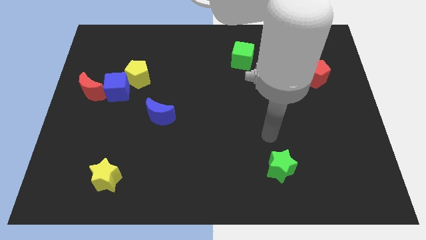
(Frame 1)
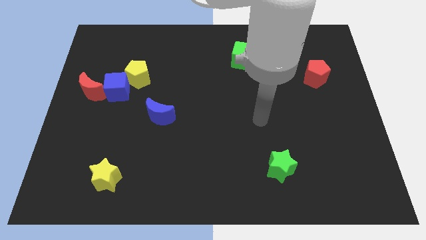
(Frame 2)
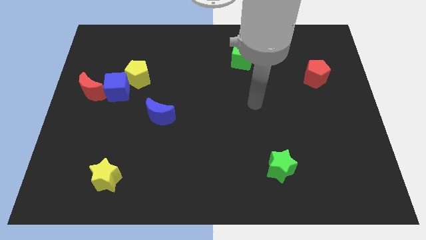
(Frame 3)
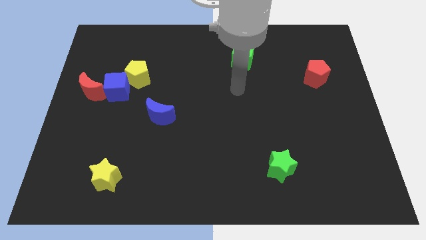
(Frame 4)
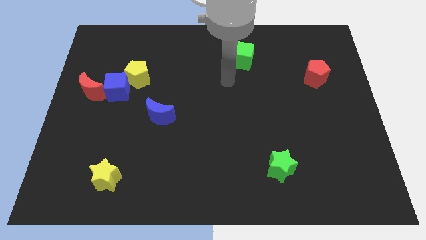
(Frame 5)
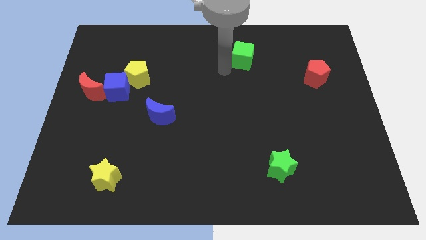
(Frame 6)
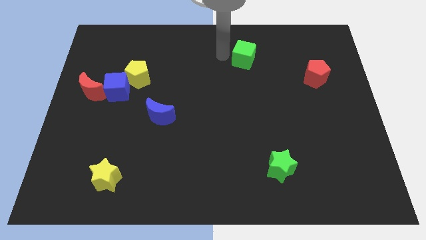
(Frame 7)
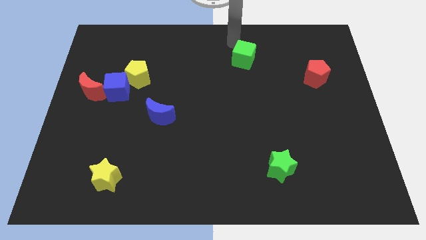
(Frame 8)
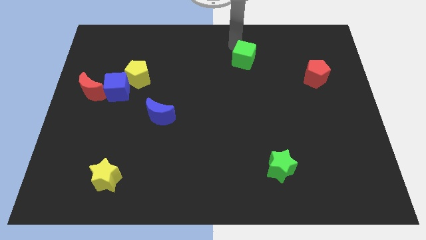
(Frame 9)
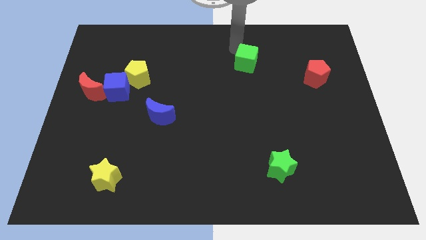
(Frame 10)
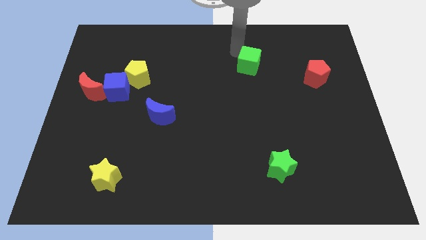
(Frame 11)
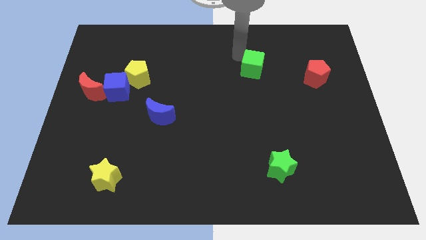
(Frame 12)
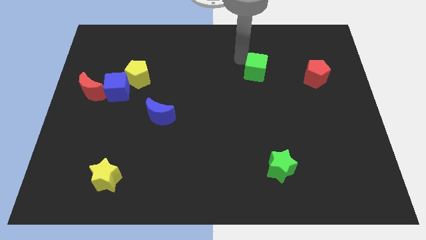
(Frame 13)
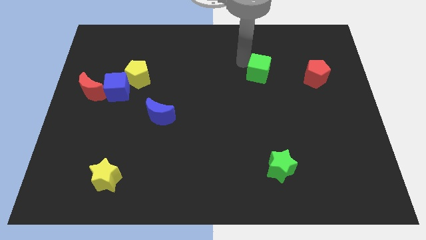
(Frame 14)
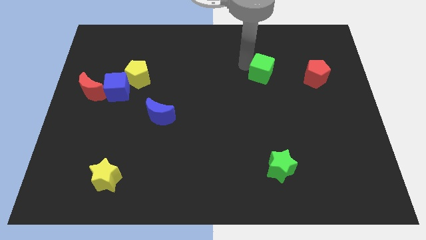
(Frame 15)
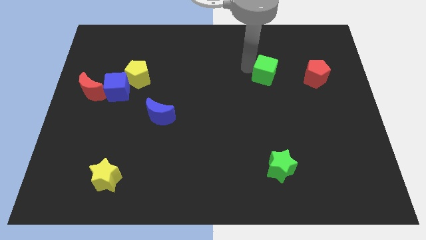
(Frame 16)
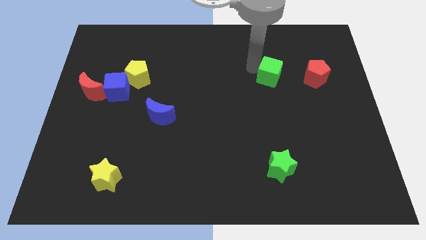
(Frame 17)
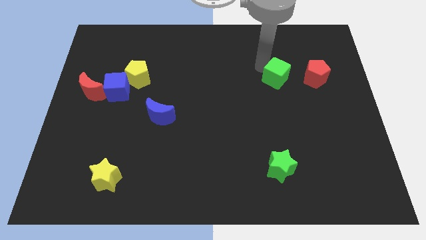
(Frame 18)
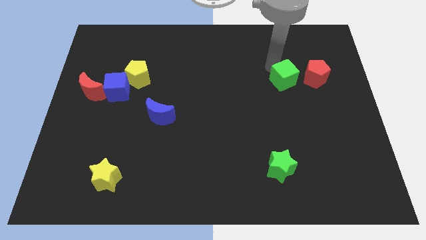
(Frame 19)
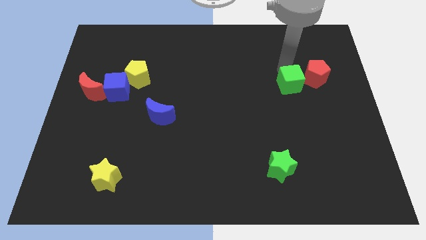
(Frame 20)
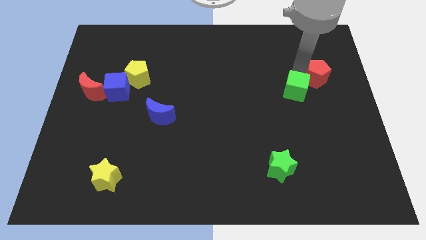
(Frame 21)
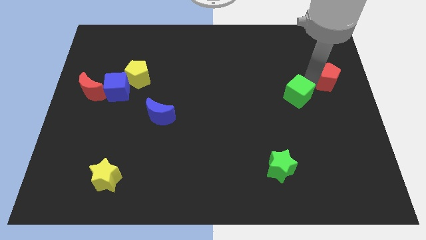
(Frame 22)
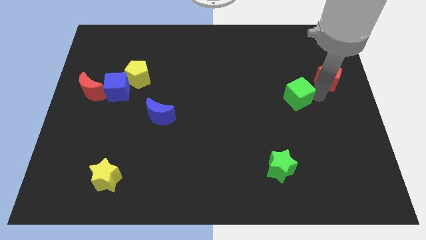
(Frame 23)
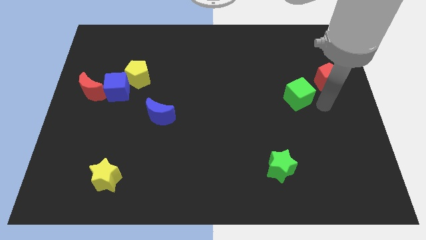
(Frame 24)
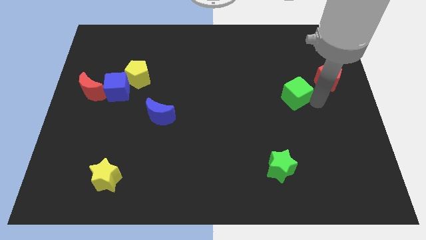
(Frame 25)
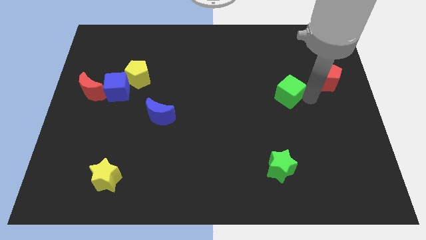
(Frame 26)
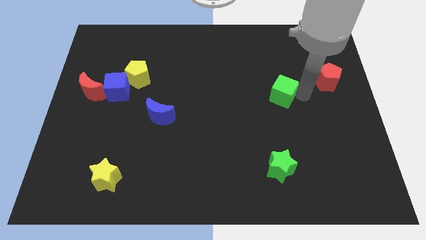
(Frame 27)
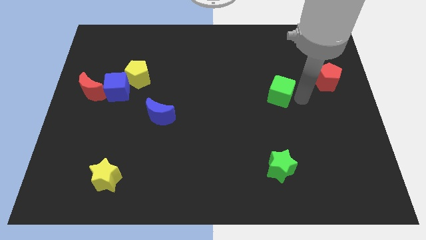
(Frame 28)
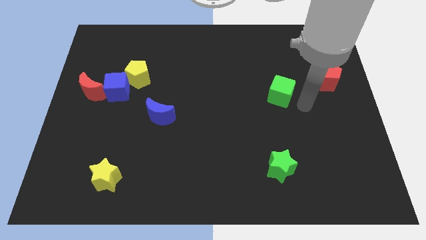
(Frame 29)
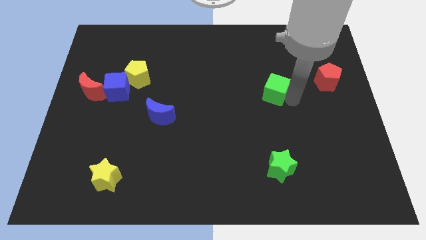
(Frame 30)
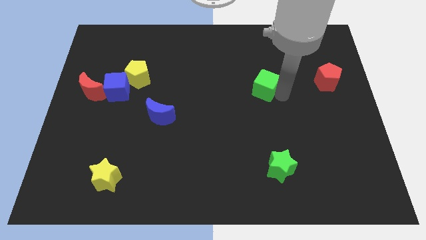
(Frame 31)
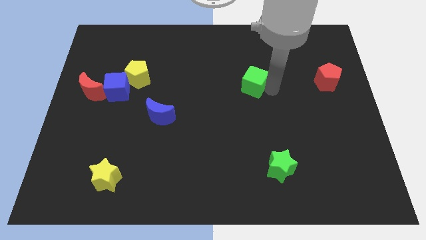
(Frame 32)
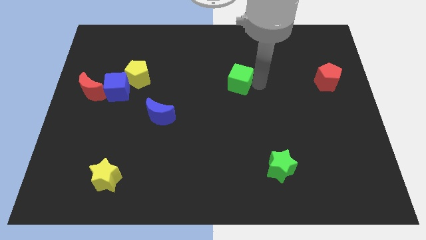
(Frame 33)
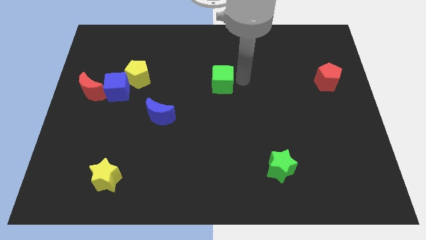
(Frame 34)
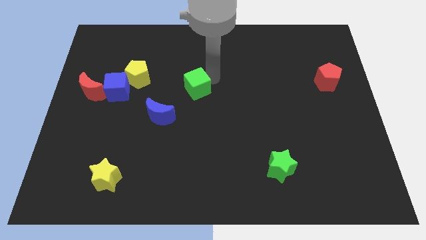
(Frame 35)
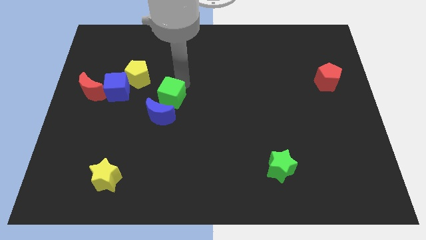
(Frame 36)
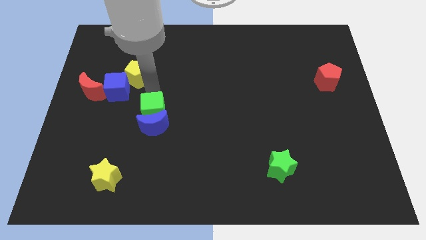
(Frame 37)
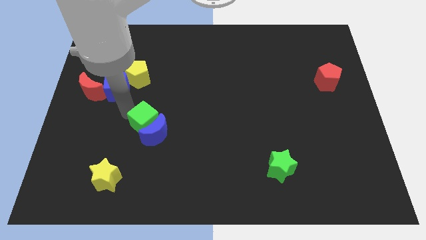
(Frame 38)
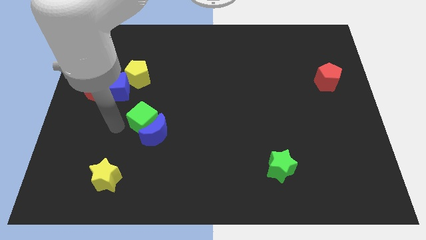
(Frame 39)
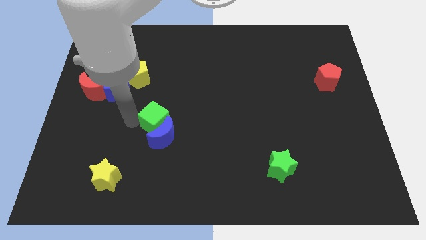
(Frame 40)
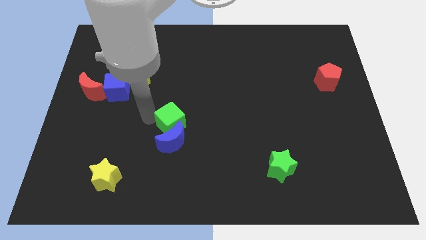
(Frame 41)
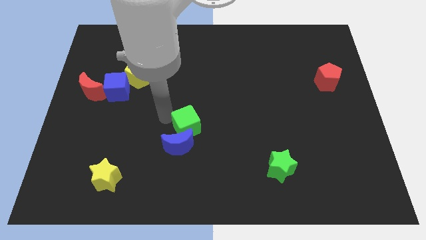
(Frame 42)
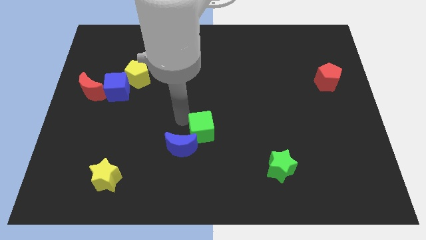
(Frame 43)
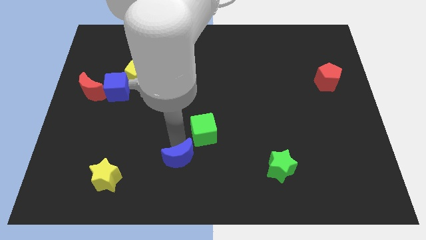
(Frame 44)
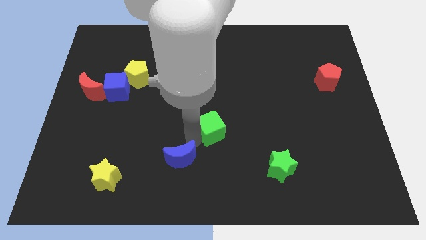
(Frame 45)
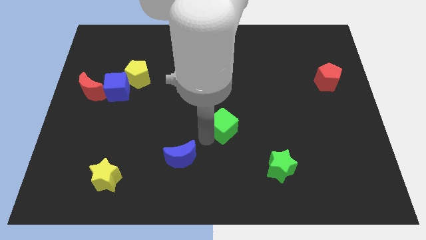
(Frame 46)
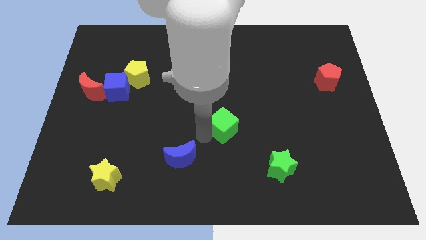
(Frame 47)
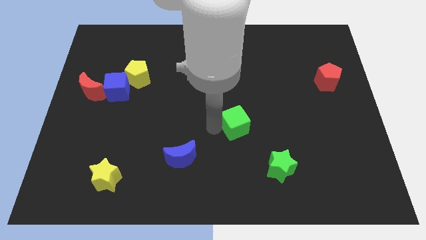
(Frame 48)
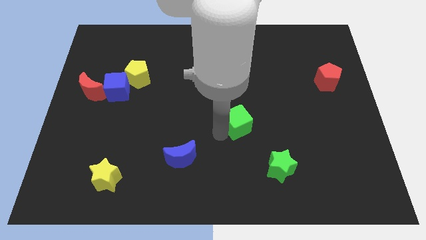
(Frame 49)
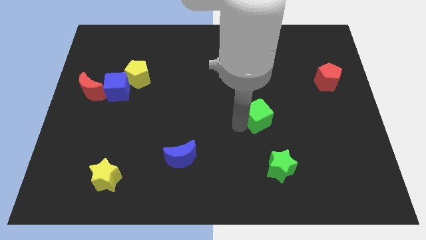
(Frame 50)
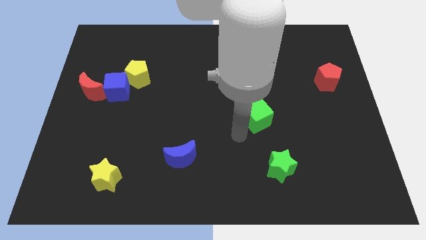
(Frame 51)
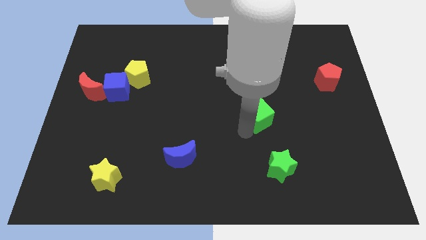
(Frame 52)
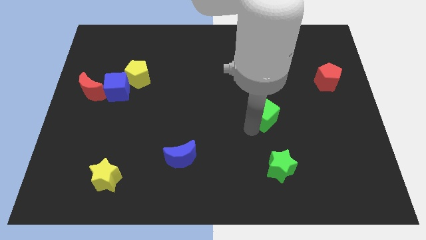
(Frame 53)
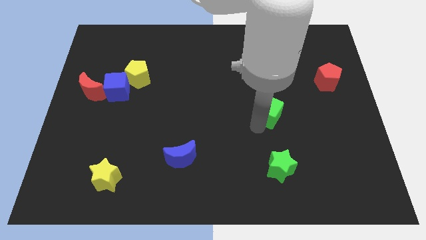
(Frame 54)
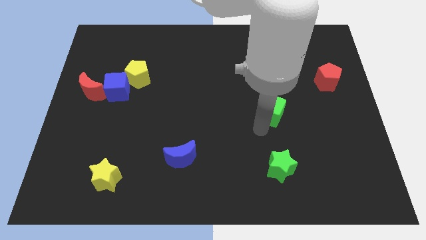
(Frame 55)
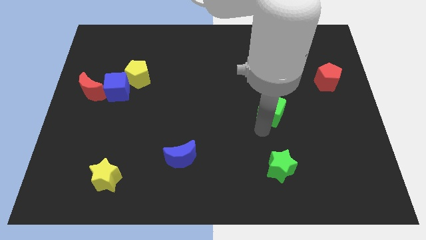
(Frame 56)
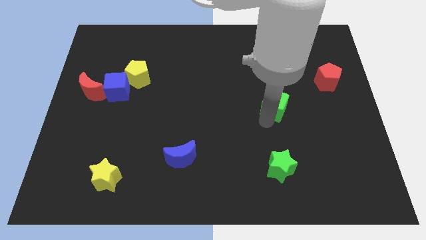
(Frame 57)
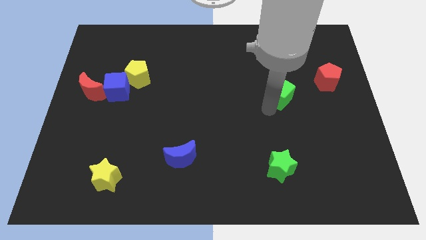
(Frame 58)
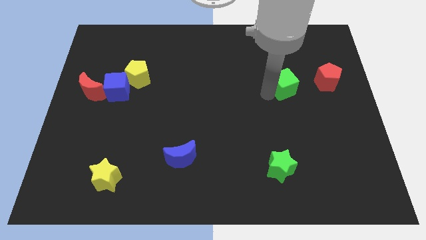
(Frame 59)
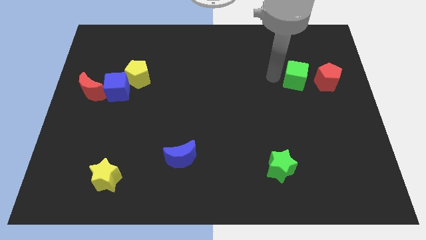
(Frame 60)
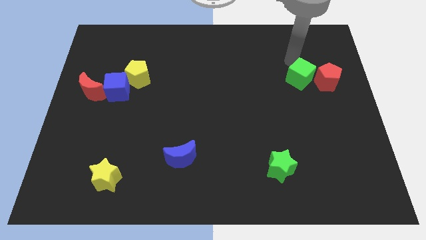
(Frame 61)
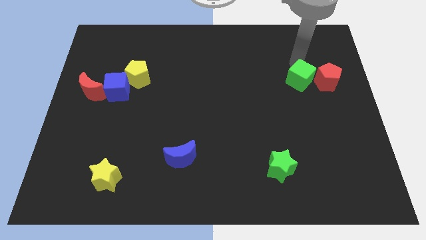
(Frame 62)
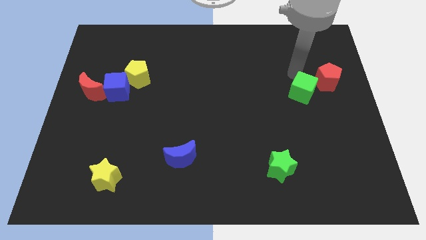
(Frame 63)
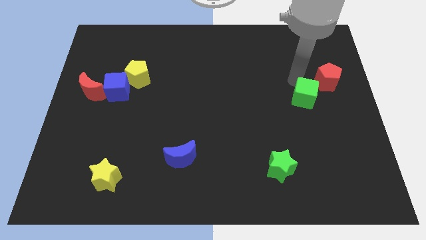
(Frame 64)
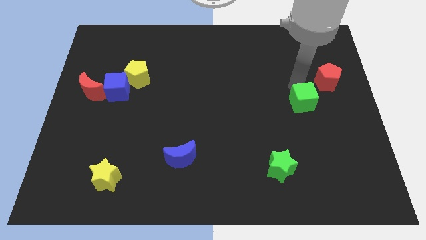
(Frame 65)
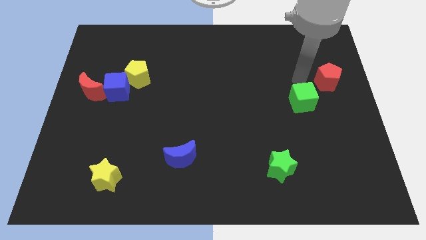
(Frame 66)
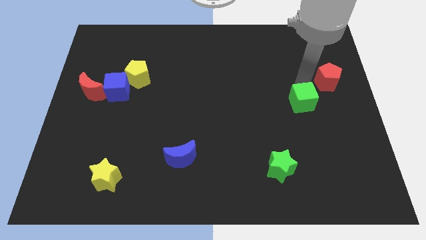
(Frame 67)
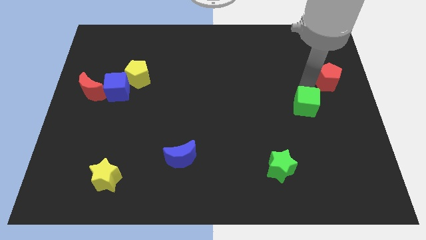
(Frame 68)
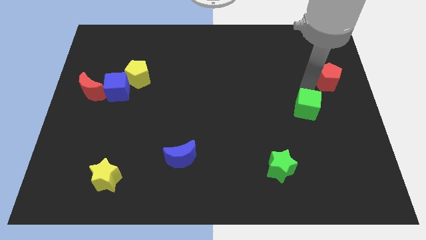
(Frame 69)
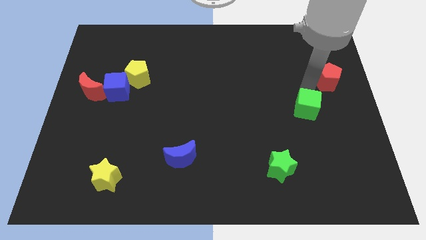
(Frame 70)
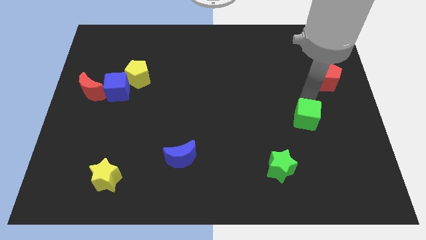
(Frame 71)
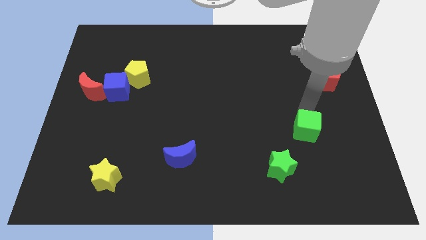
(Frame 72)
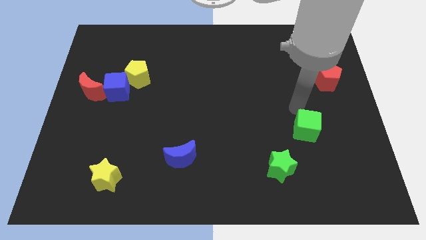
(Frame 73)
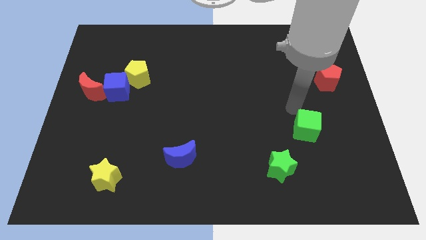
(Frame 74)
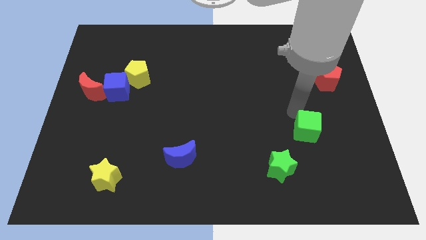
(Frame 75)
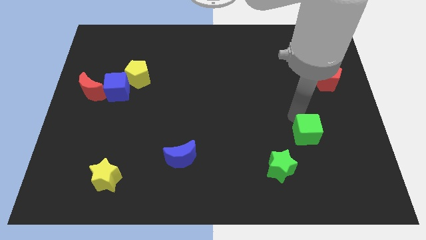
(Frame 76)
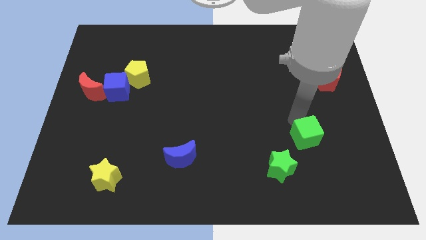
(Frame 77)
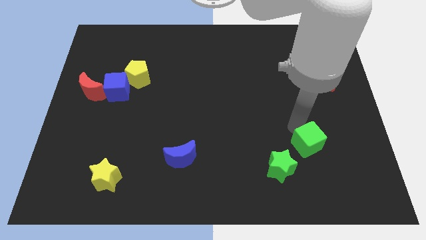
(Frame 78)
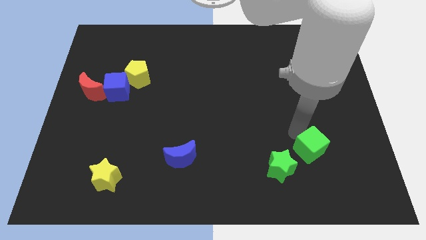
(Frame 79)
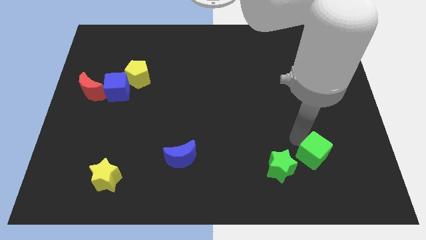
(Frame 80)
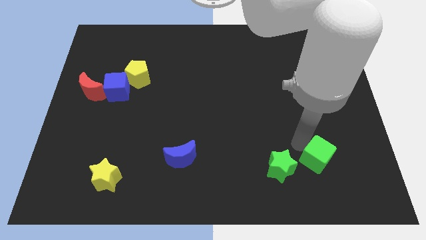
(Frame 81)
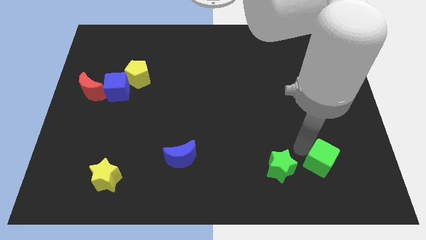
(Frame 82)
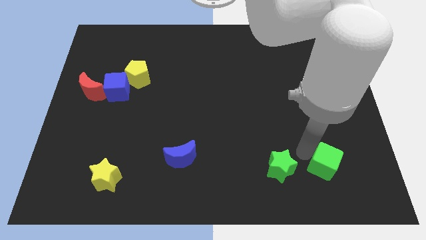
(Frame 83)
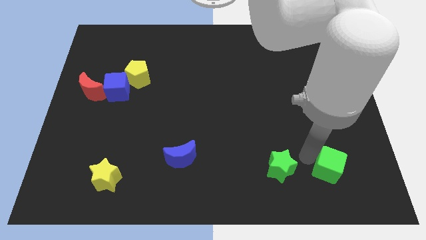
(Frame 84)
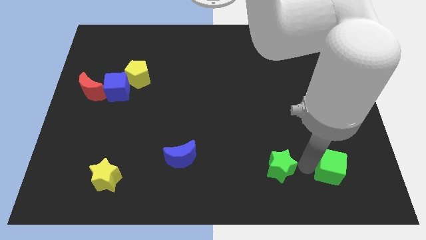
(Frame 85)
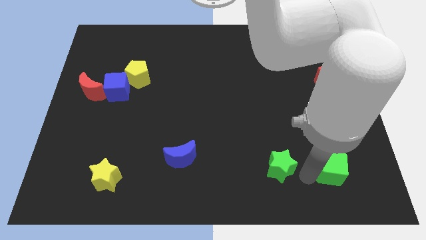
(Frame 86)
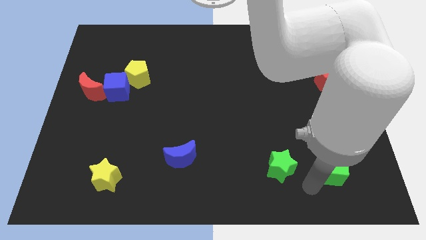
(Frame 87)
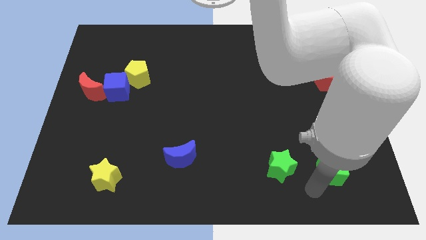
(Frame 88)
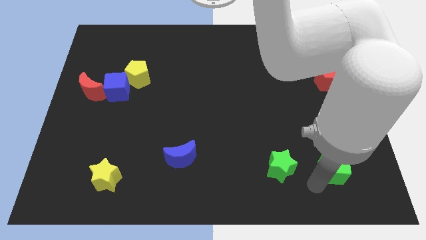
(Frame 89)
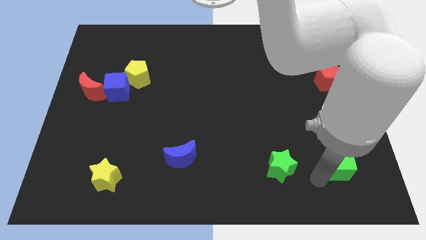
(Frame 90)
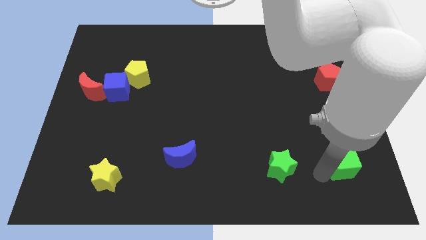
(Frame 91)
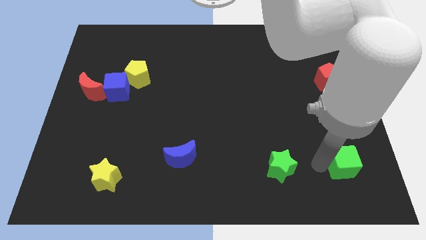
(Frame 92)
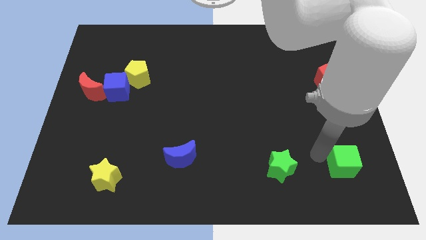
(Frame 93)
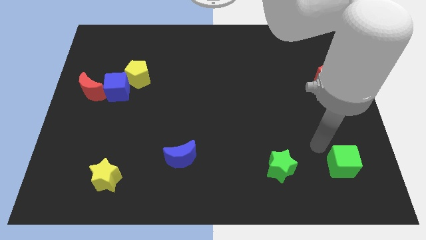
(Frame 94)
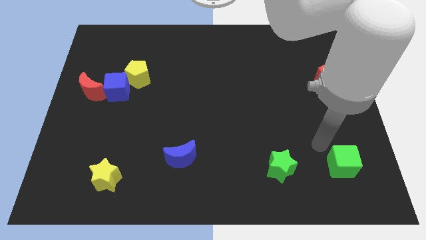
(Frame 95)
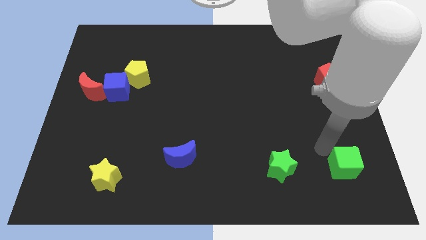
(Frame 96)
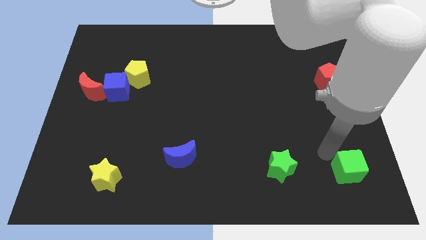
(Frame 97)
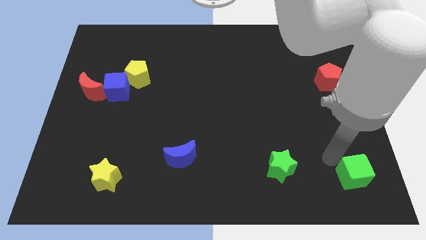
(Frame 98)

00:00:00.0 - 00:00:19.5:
push the green cube to the lower right corner
